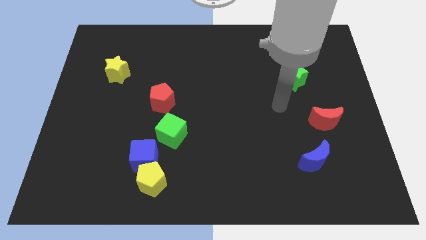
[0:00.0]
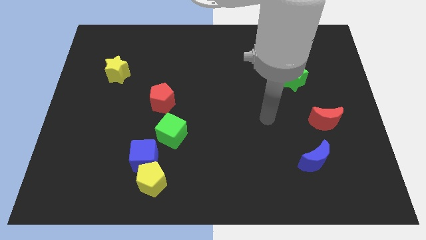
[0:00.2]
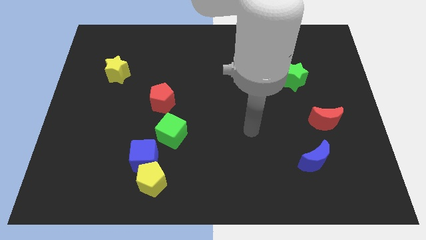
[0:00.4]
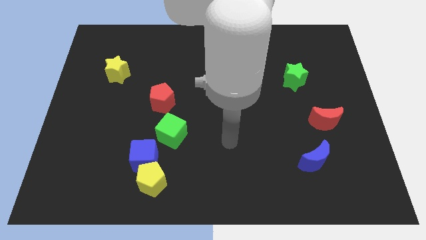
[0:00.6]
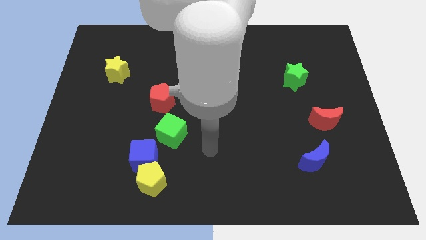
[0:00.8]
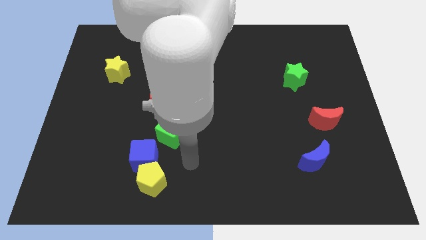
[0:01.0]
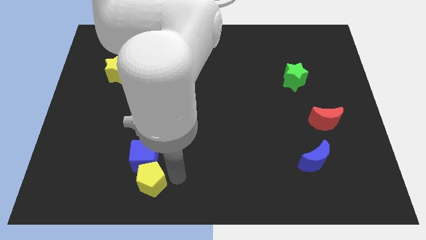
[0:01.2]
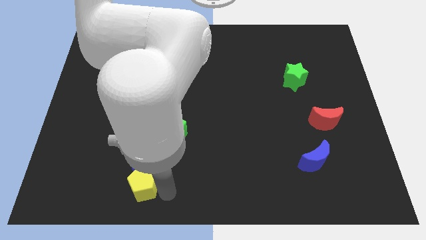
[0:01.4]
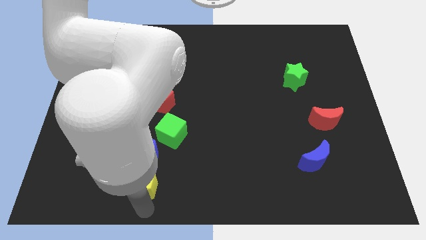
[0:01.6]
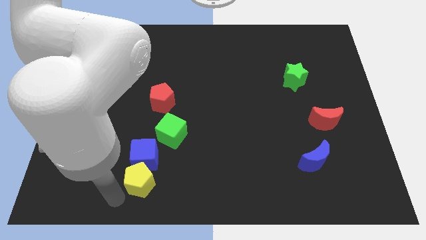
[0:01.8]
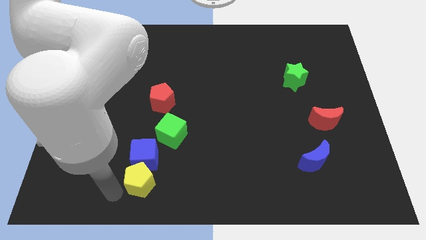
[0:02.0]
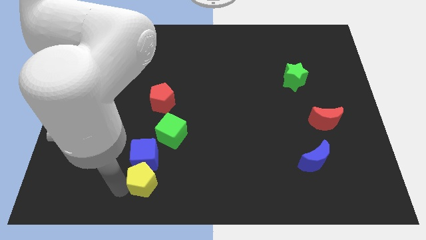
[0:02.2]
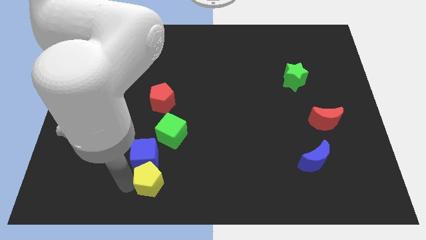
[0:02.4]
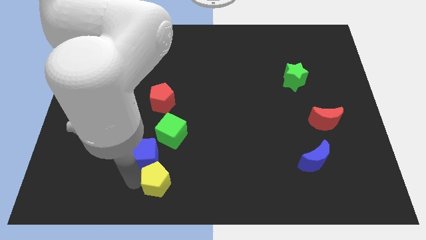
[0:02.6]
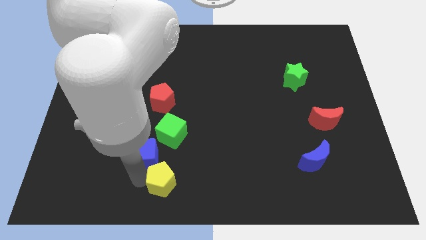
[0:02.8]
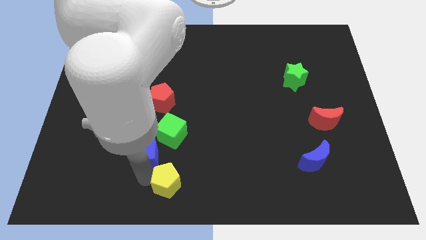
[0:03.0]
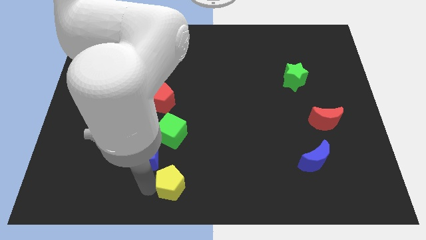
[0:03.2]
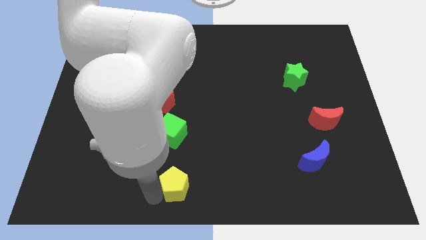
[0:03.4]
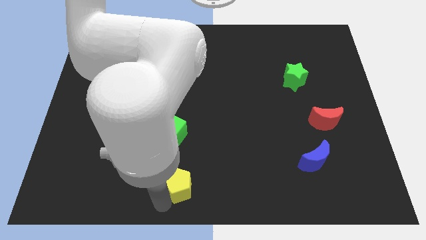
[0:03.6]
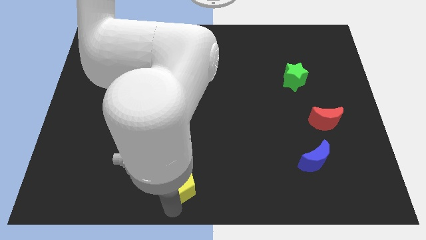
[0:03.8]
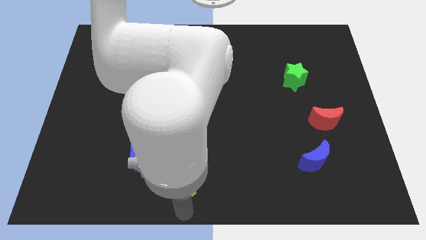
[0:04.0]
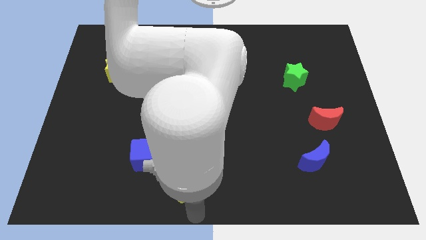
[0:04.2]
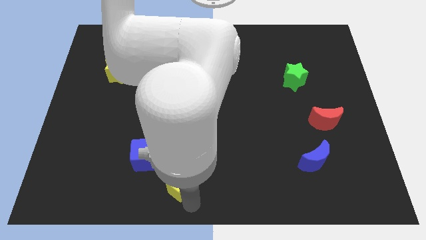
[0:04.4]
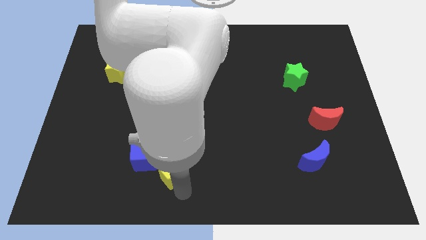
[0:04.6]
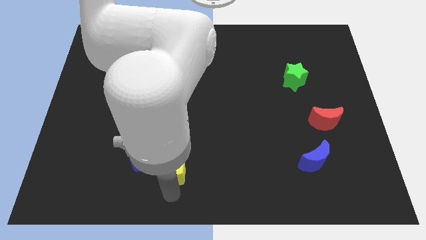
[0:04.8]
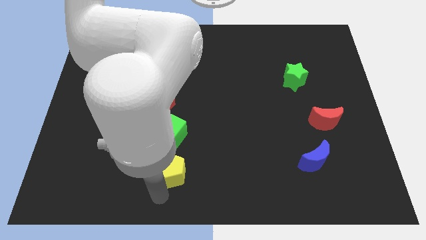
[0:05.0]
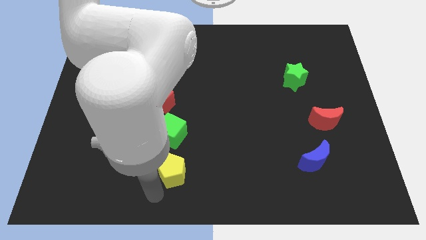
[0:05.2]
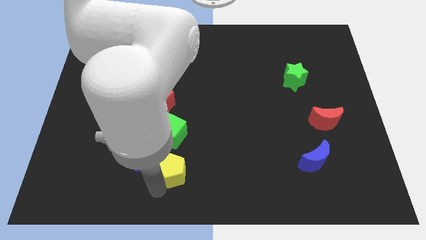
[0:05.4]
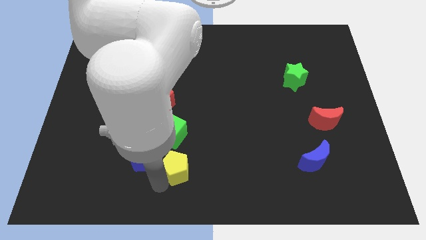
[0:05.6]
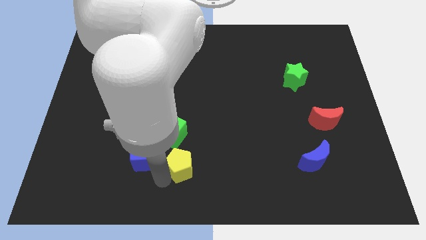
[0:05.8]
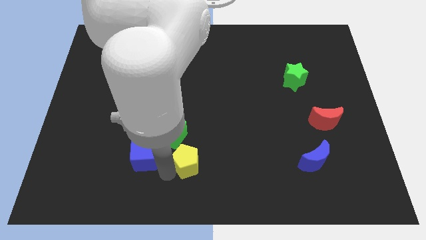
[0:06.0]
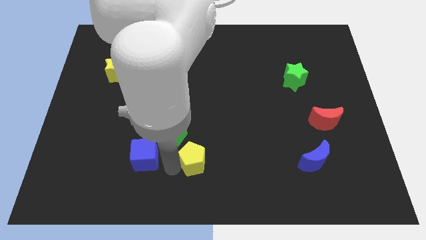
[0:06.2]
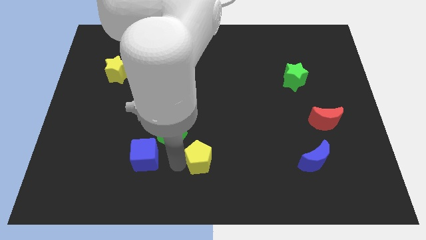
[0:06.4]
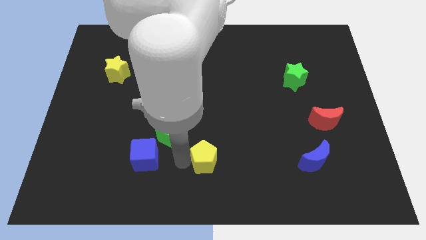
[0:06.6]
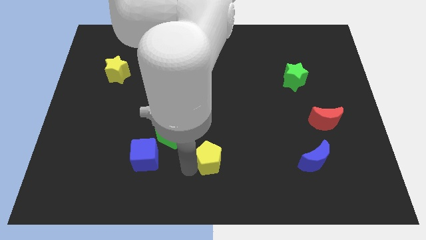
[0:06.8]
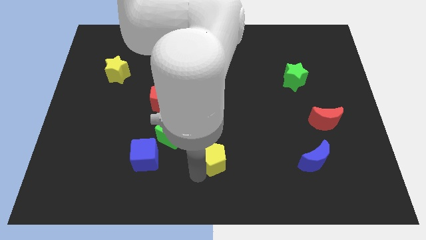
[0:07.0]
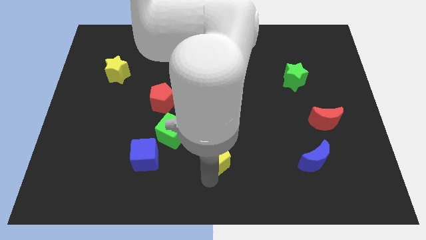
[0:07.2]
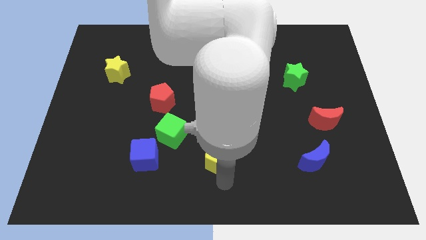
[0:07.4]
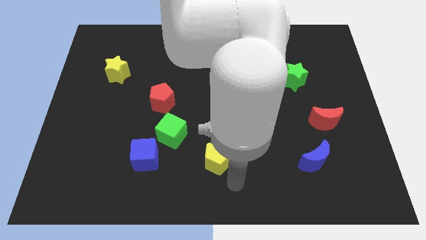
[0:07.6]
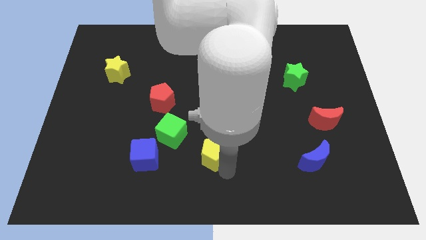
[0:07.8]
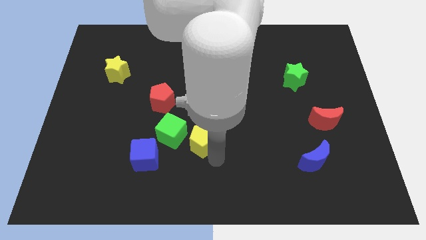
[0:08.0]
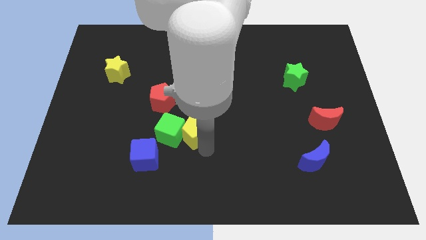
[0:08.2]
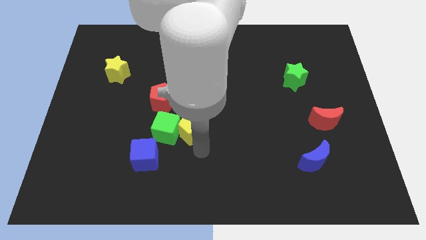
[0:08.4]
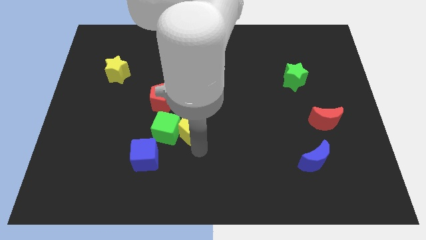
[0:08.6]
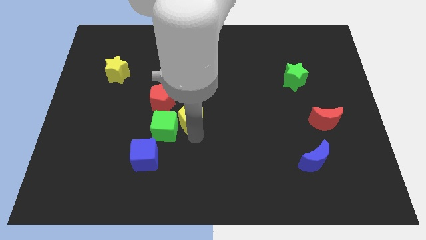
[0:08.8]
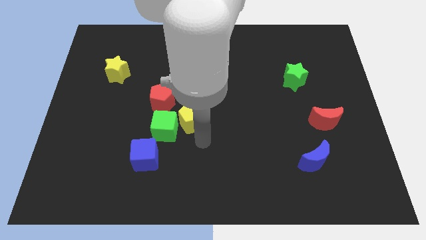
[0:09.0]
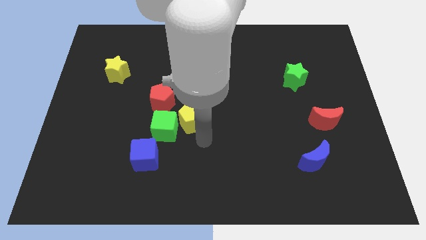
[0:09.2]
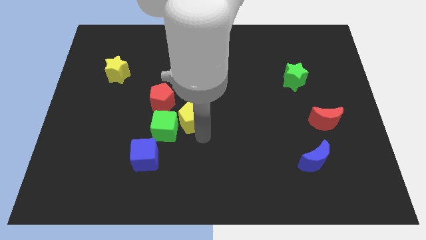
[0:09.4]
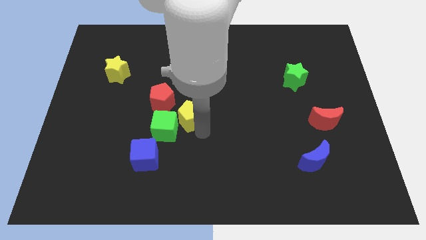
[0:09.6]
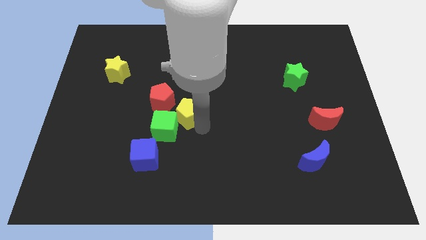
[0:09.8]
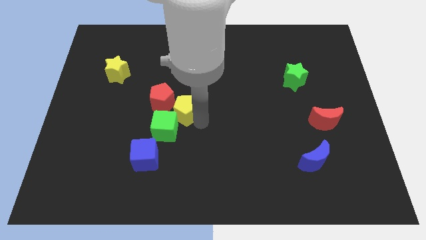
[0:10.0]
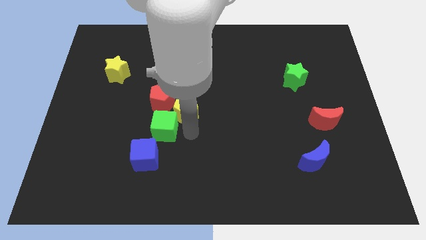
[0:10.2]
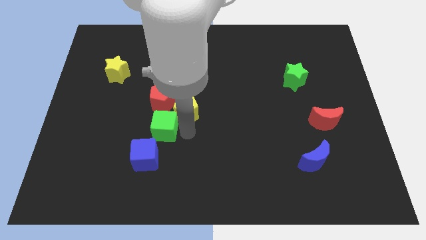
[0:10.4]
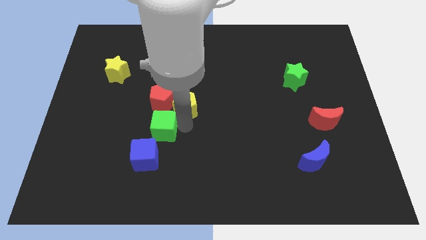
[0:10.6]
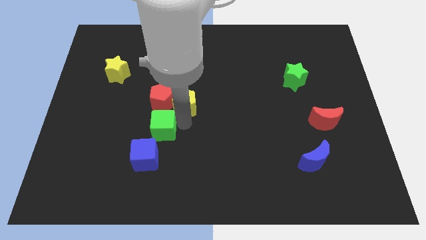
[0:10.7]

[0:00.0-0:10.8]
push the yellow pentagon to the top right of the red pentagon
